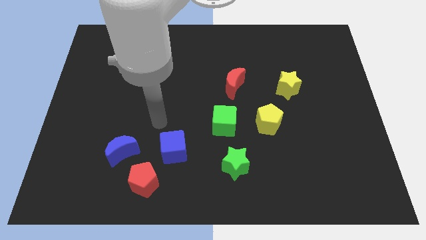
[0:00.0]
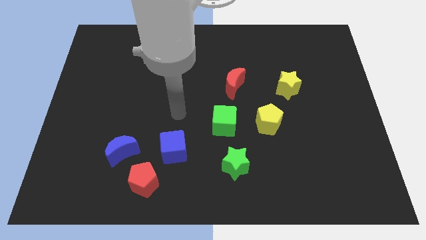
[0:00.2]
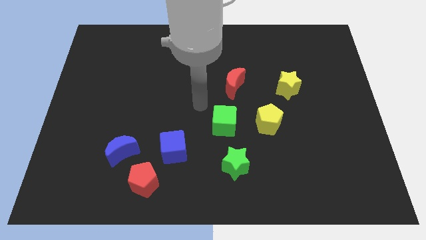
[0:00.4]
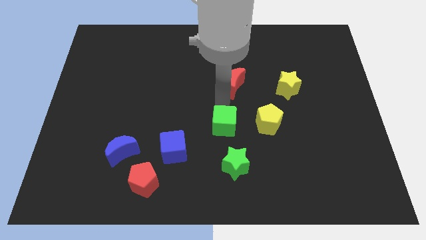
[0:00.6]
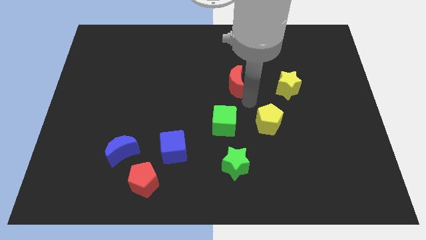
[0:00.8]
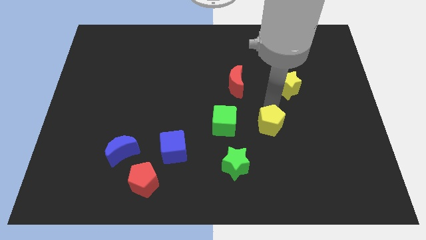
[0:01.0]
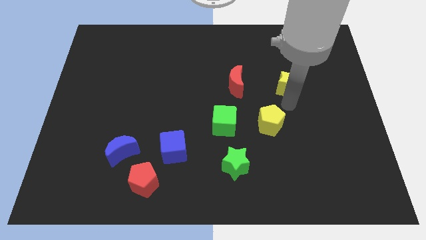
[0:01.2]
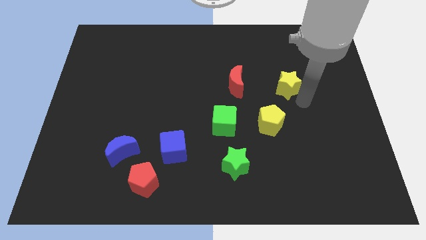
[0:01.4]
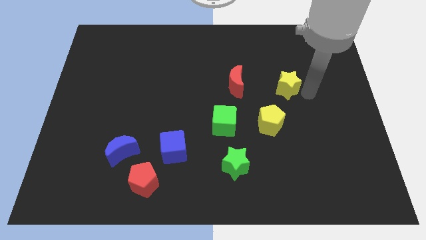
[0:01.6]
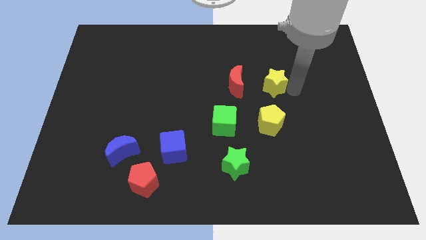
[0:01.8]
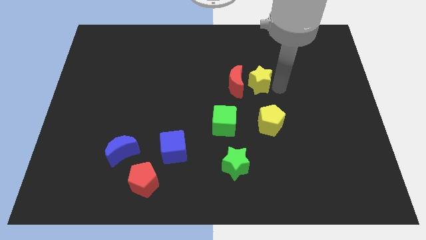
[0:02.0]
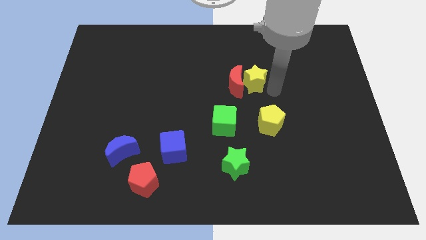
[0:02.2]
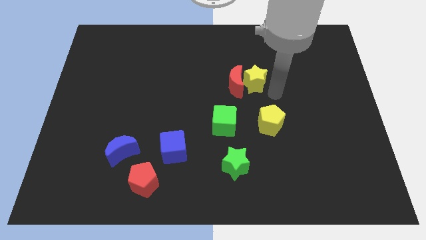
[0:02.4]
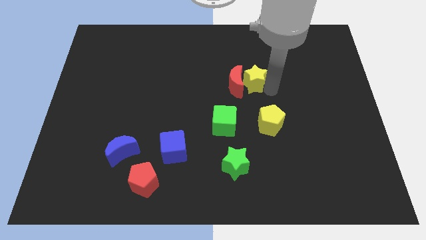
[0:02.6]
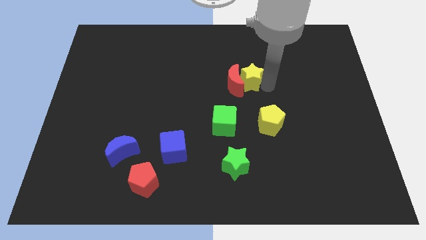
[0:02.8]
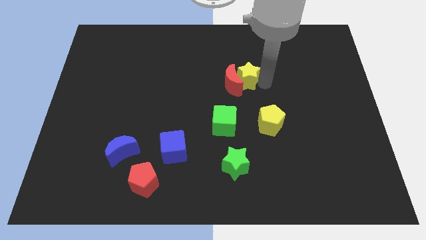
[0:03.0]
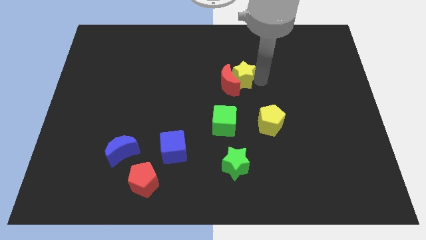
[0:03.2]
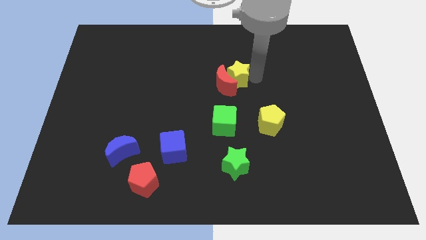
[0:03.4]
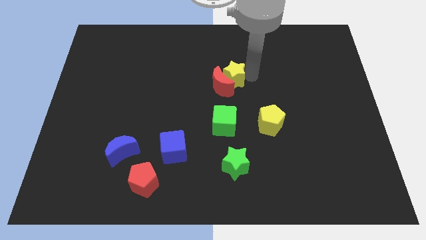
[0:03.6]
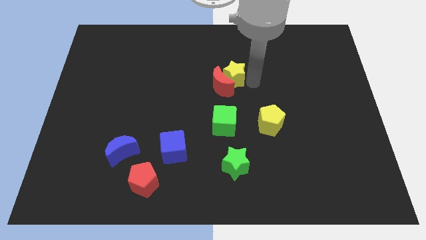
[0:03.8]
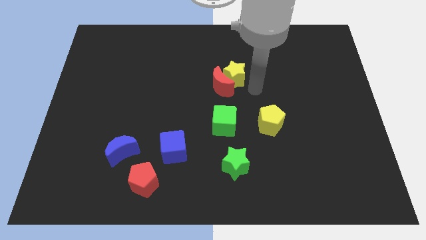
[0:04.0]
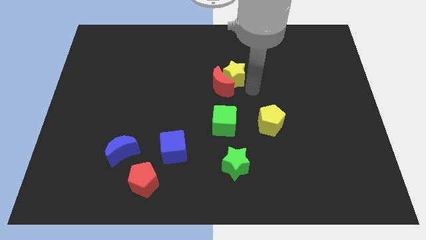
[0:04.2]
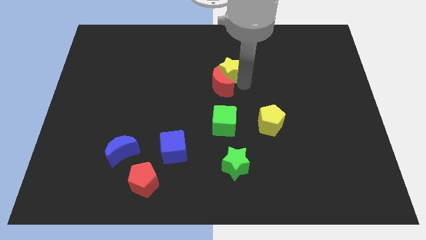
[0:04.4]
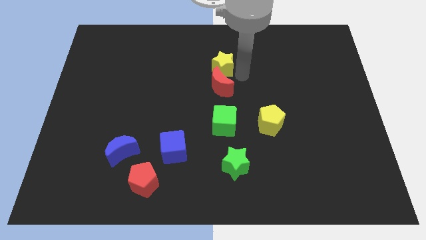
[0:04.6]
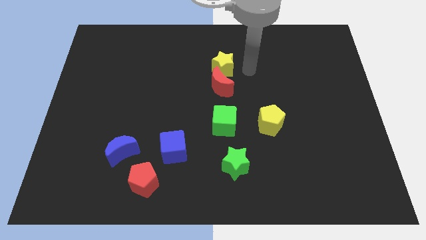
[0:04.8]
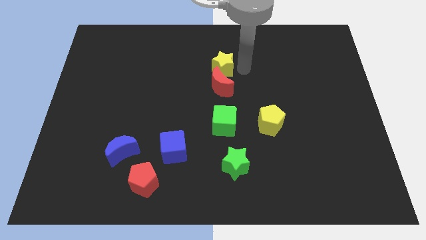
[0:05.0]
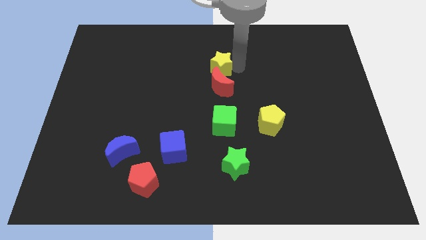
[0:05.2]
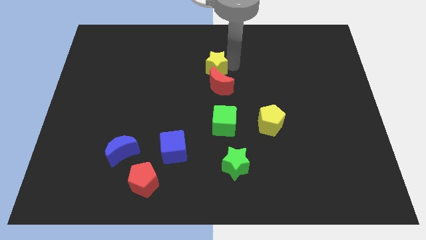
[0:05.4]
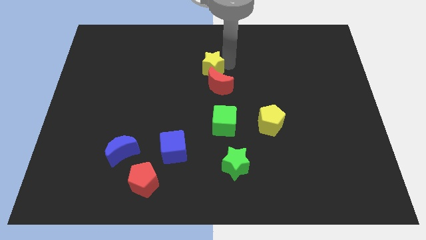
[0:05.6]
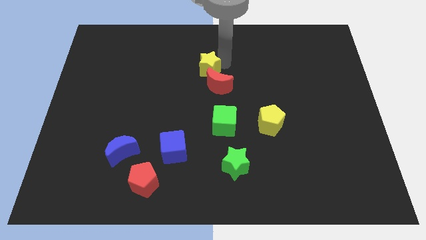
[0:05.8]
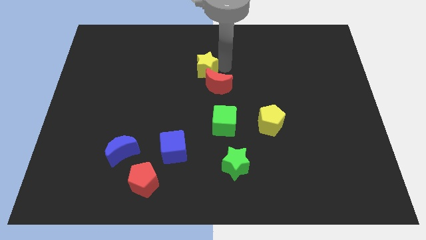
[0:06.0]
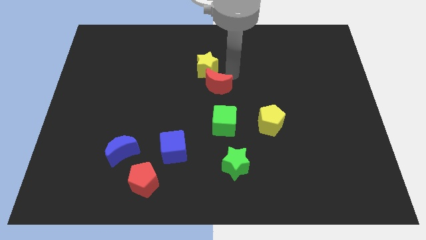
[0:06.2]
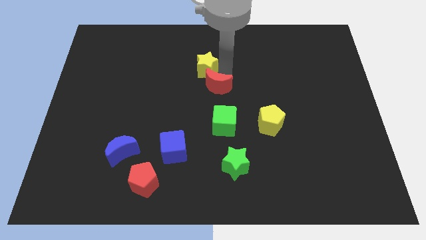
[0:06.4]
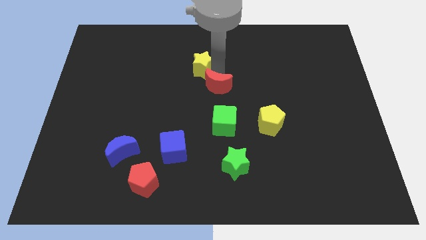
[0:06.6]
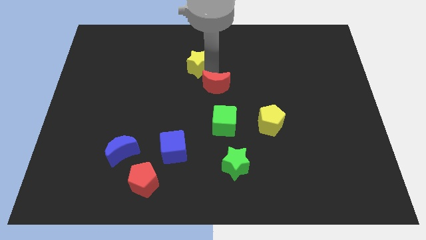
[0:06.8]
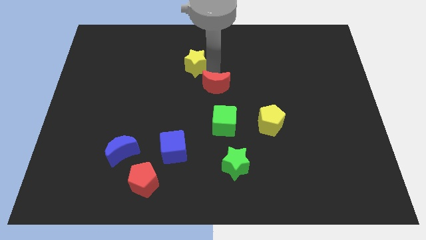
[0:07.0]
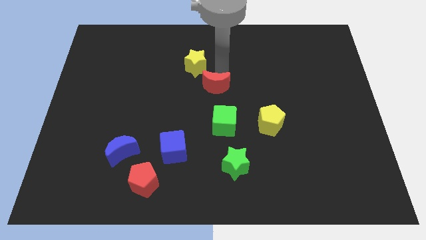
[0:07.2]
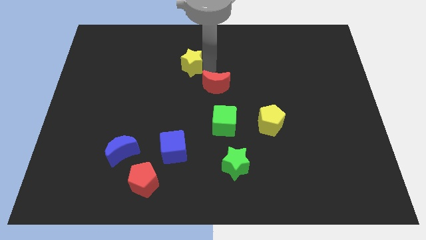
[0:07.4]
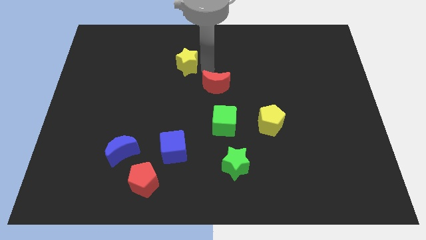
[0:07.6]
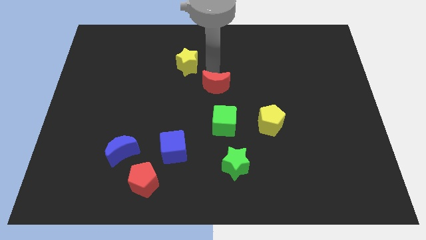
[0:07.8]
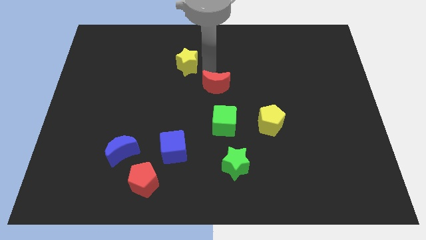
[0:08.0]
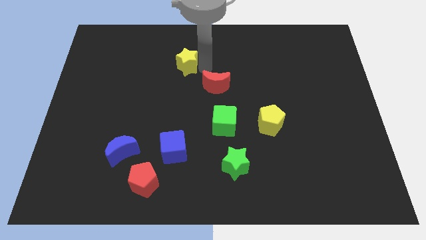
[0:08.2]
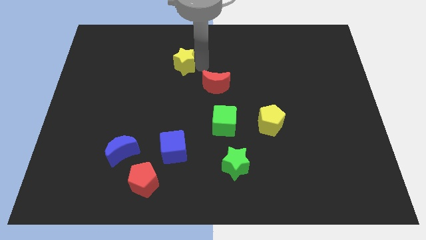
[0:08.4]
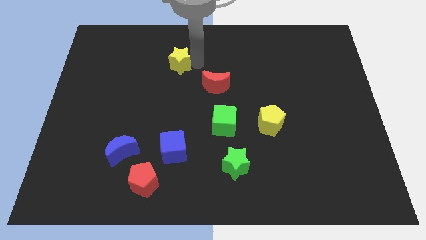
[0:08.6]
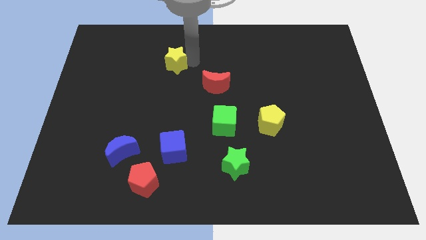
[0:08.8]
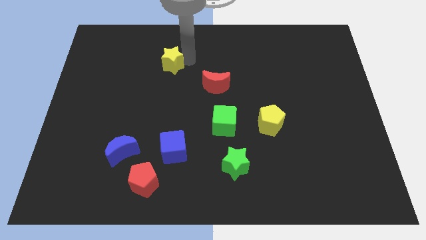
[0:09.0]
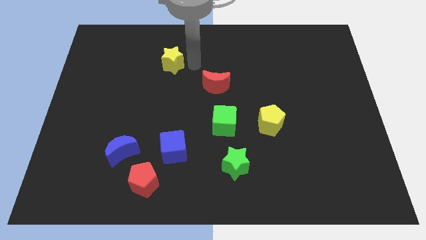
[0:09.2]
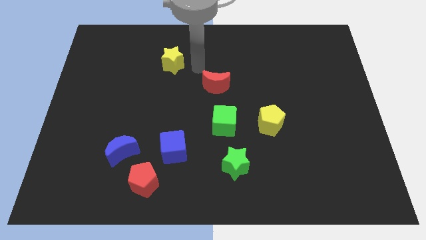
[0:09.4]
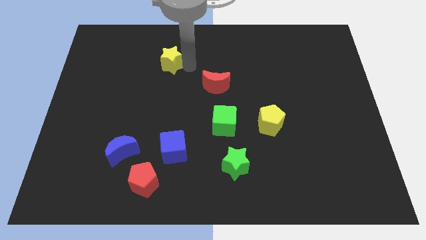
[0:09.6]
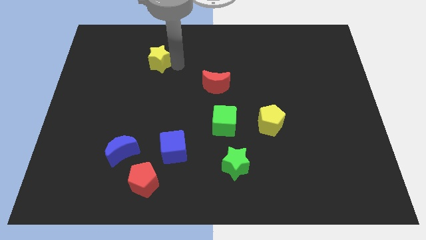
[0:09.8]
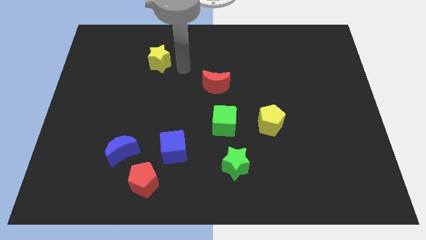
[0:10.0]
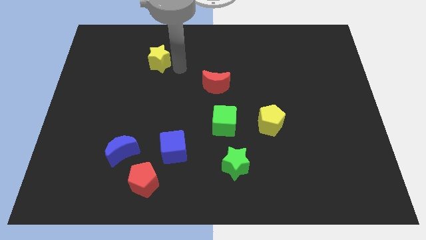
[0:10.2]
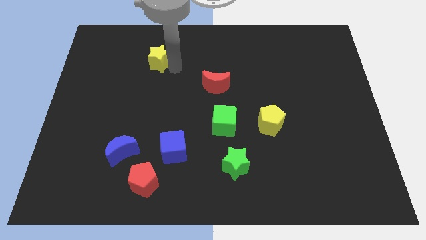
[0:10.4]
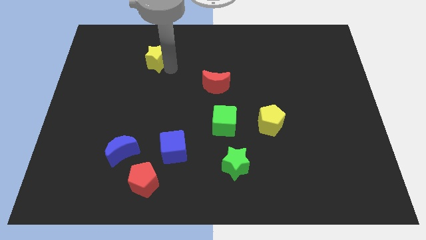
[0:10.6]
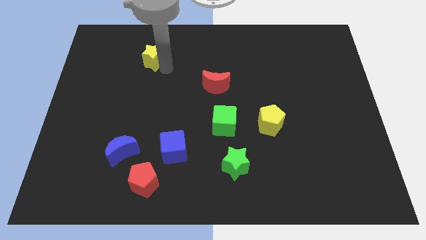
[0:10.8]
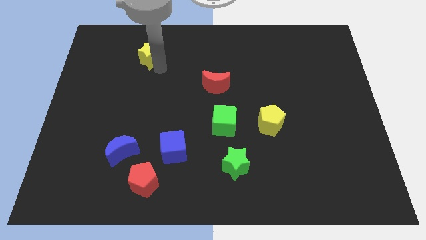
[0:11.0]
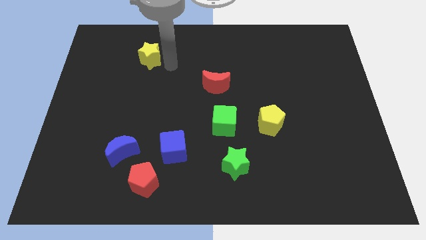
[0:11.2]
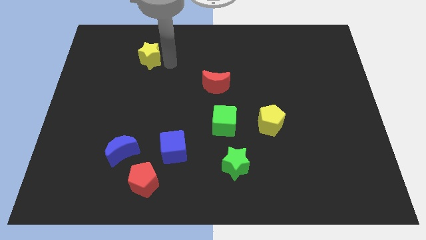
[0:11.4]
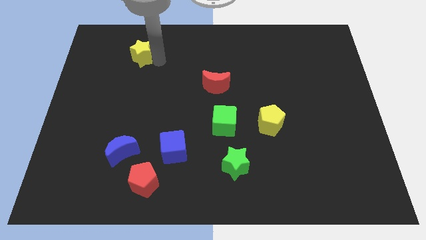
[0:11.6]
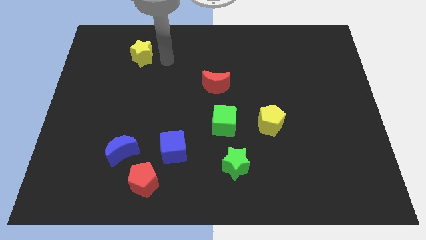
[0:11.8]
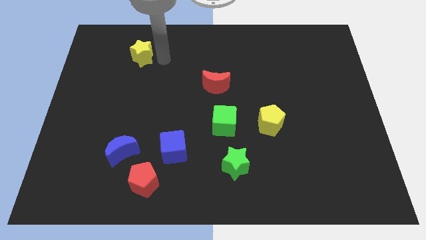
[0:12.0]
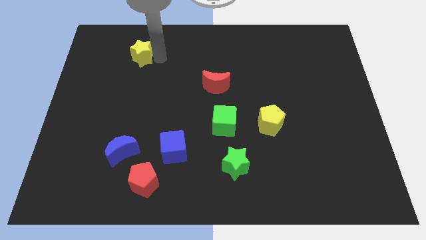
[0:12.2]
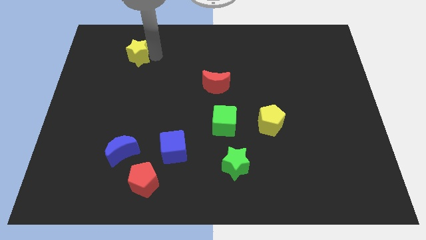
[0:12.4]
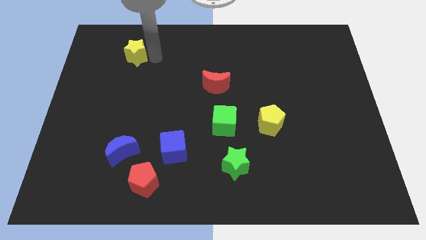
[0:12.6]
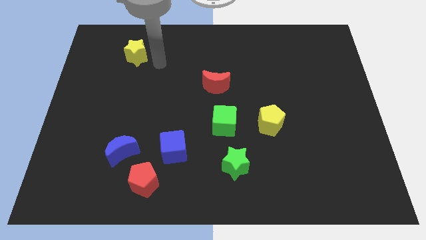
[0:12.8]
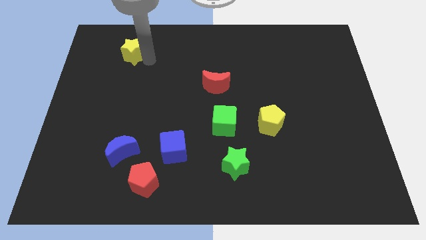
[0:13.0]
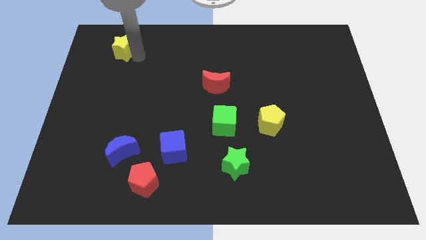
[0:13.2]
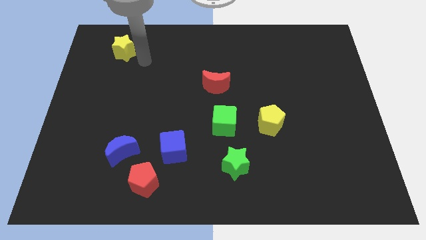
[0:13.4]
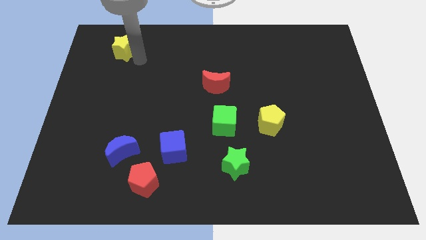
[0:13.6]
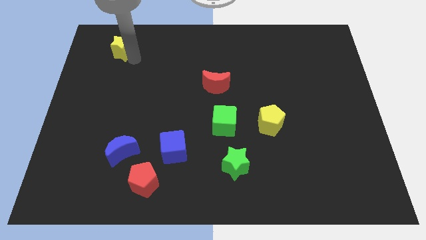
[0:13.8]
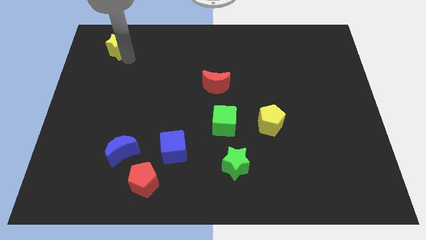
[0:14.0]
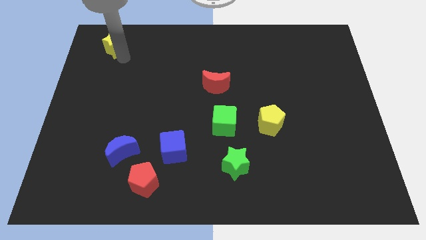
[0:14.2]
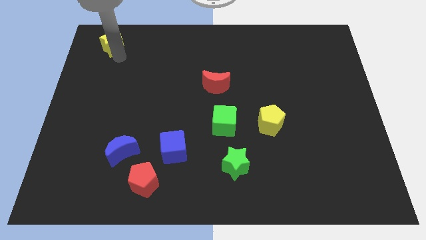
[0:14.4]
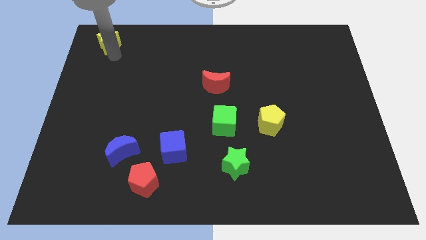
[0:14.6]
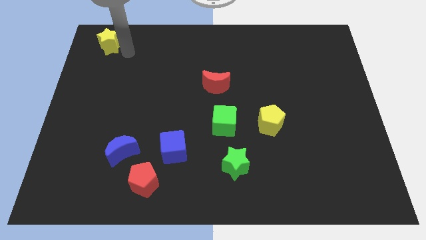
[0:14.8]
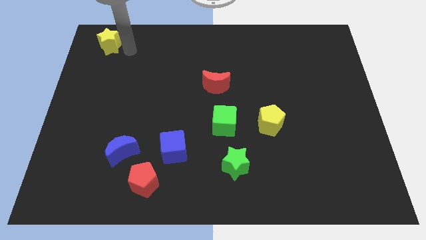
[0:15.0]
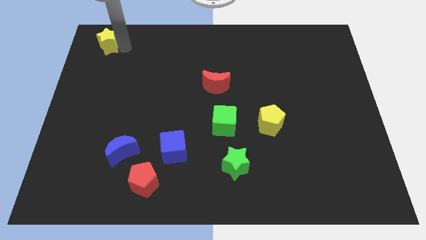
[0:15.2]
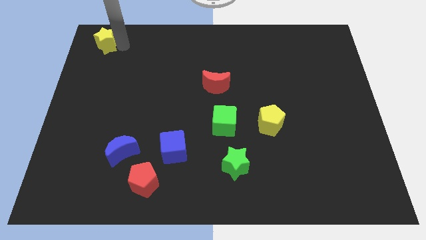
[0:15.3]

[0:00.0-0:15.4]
slide the yellow star to the top left corner
